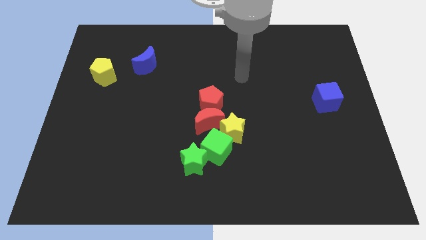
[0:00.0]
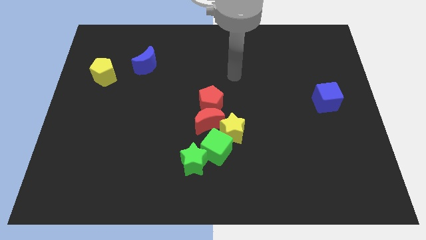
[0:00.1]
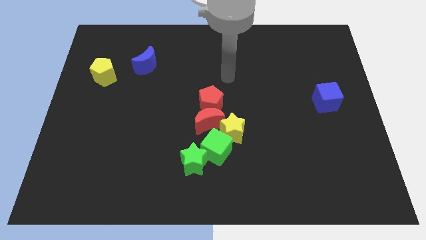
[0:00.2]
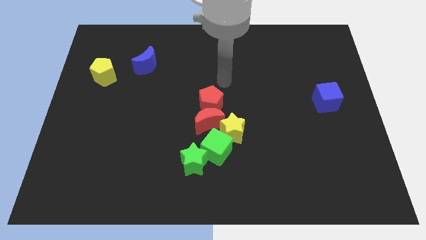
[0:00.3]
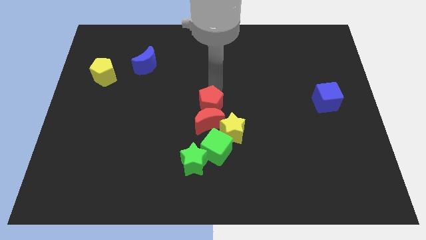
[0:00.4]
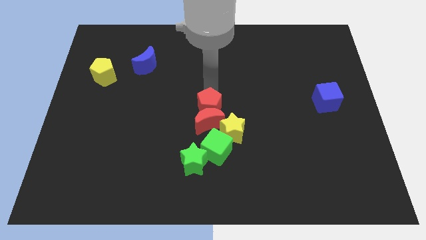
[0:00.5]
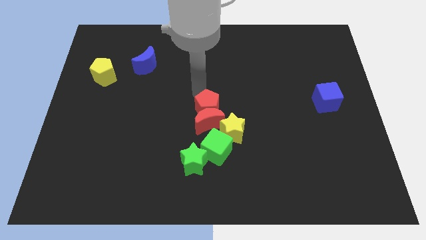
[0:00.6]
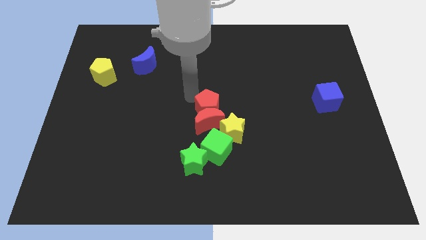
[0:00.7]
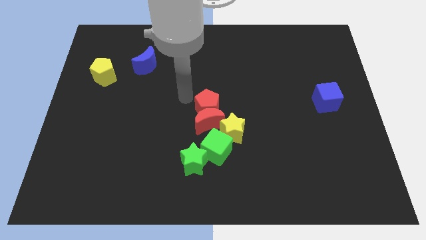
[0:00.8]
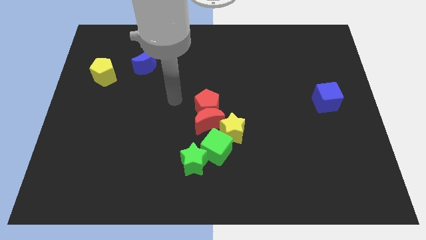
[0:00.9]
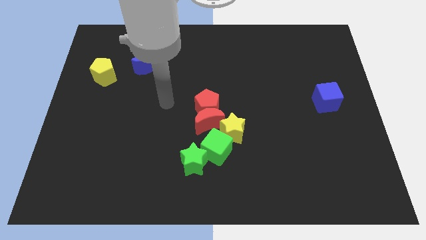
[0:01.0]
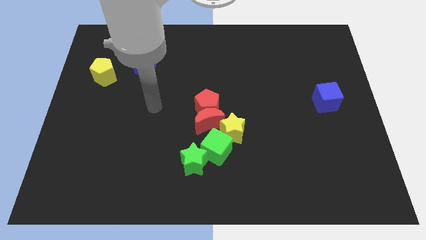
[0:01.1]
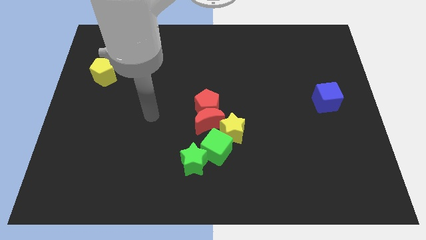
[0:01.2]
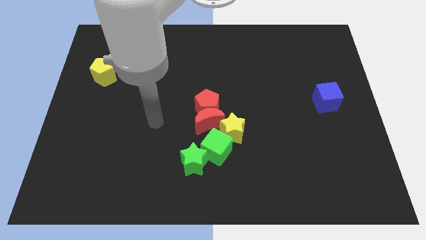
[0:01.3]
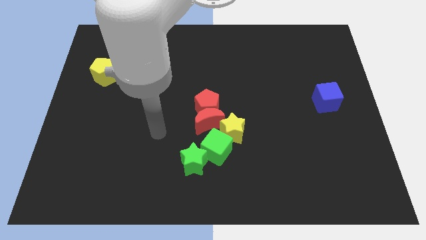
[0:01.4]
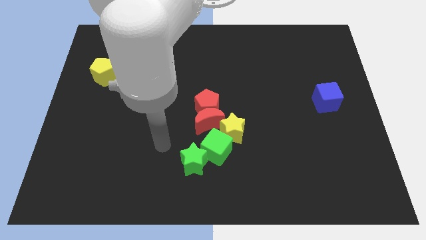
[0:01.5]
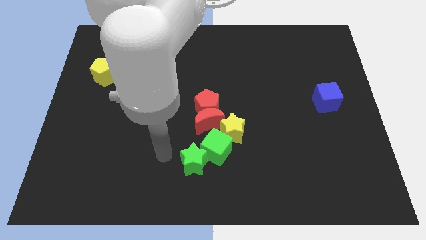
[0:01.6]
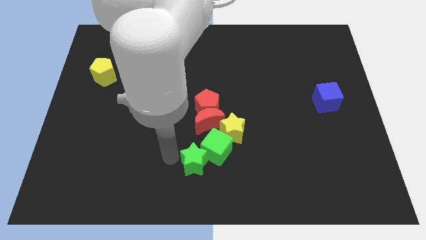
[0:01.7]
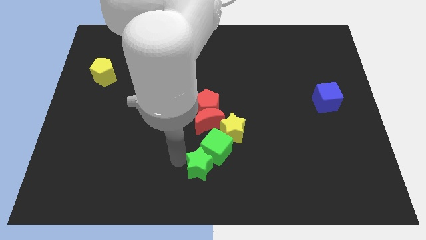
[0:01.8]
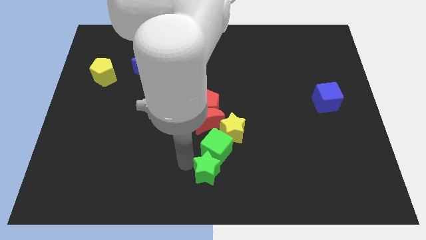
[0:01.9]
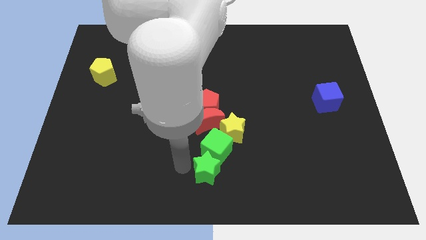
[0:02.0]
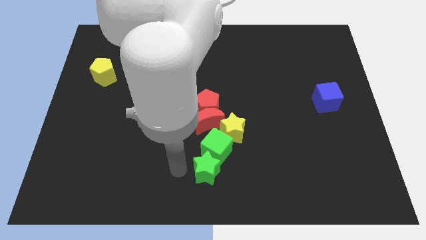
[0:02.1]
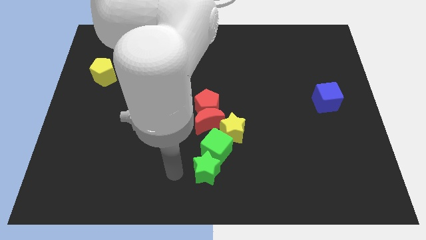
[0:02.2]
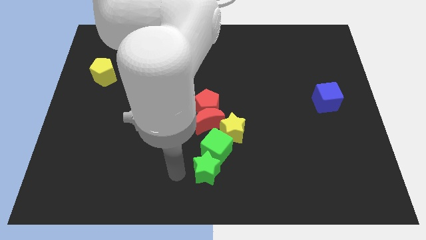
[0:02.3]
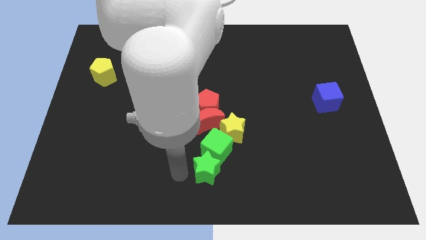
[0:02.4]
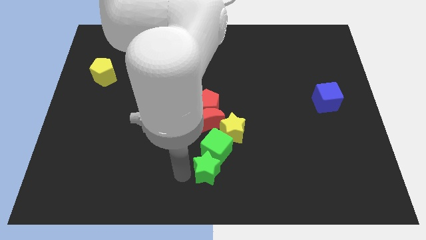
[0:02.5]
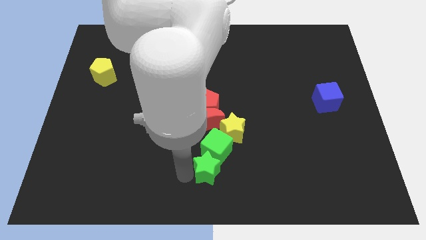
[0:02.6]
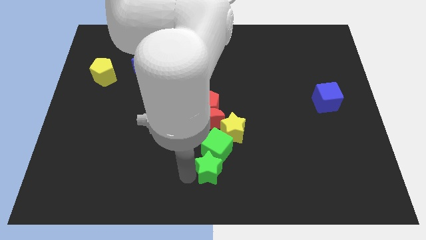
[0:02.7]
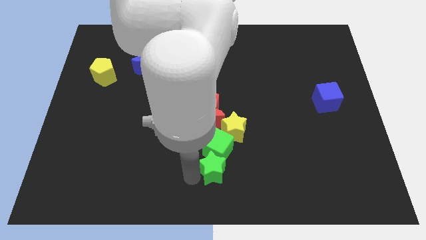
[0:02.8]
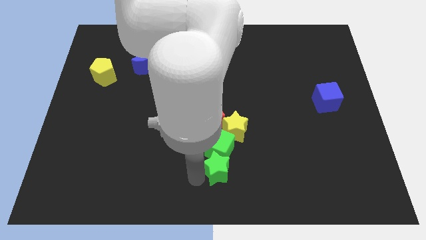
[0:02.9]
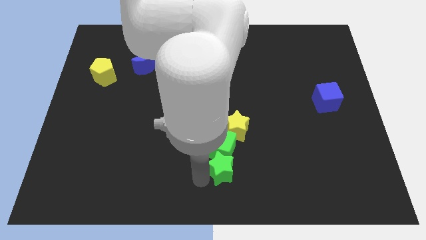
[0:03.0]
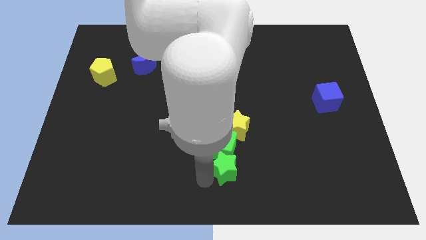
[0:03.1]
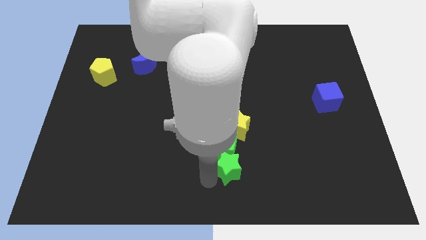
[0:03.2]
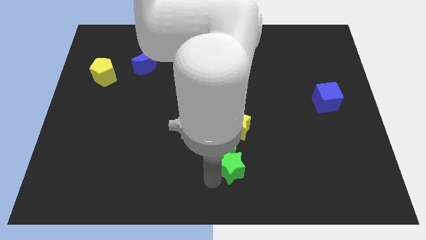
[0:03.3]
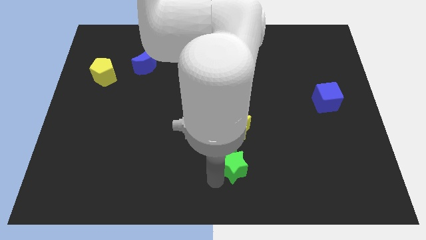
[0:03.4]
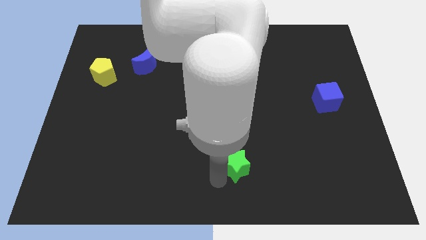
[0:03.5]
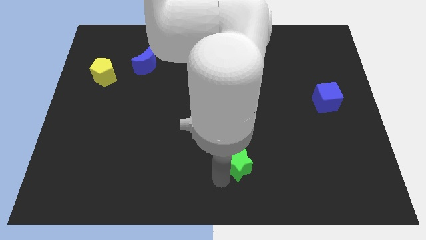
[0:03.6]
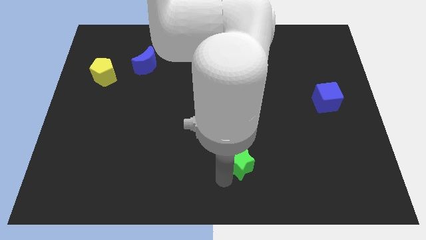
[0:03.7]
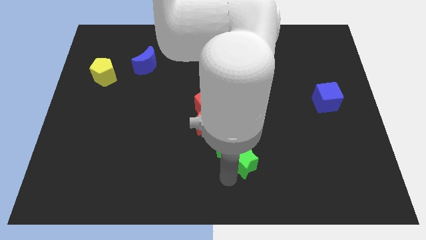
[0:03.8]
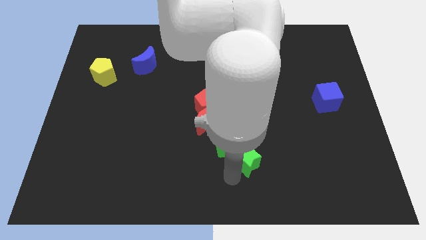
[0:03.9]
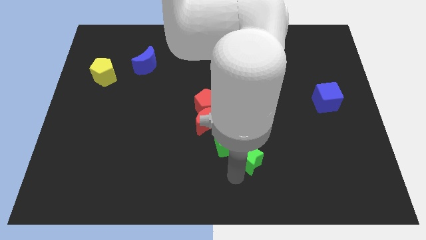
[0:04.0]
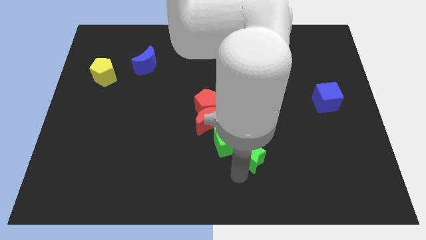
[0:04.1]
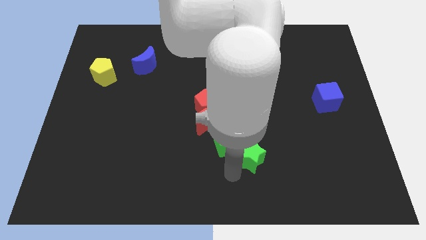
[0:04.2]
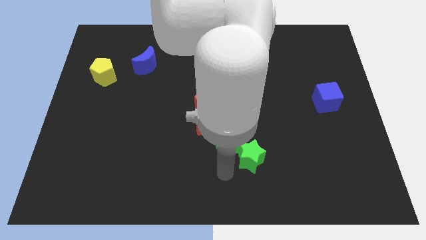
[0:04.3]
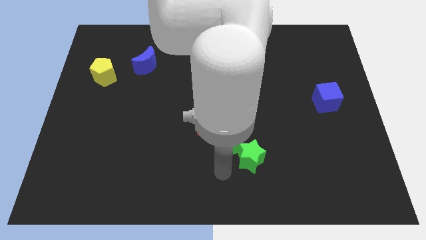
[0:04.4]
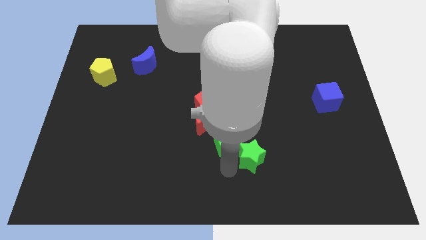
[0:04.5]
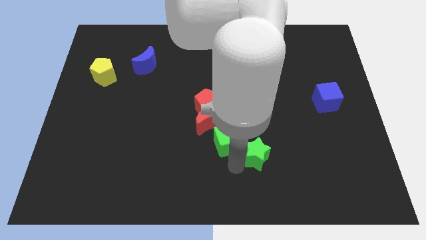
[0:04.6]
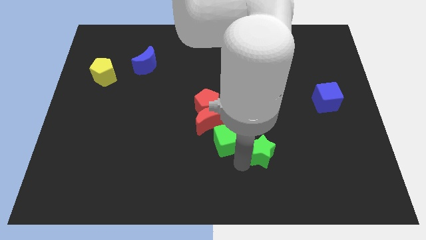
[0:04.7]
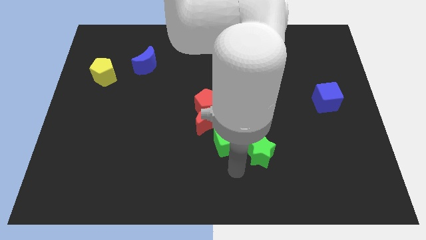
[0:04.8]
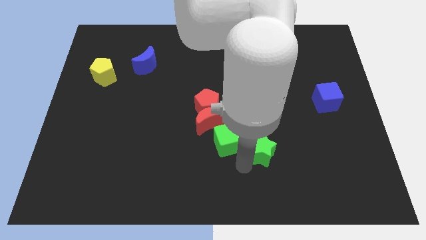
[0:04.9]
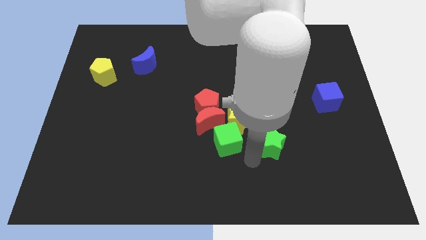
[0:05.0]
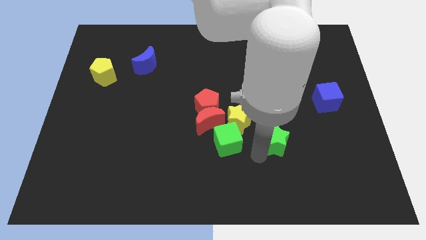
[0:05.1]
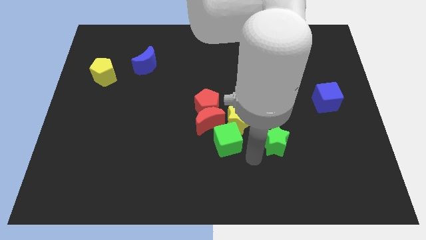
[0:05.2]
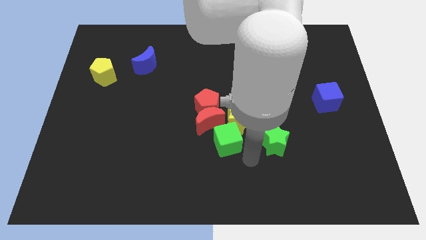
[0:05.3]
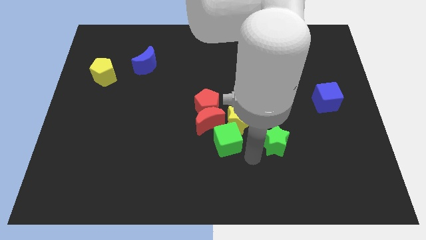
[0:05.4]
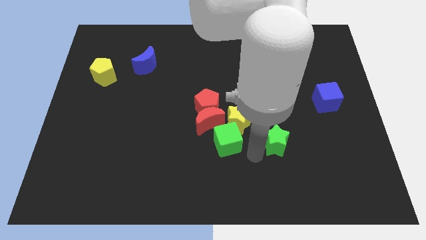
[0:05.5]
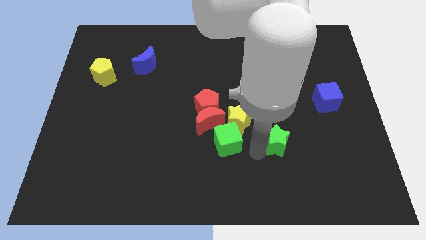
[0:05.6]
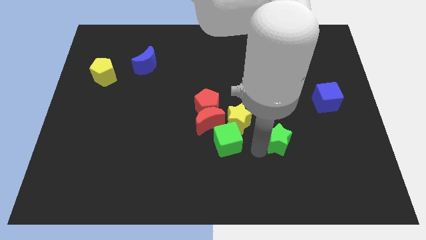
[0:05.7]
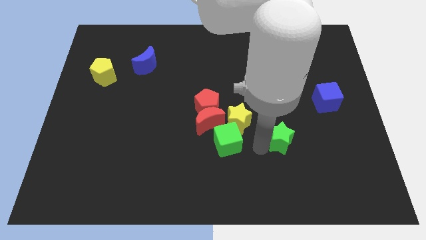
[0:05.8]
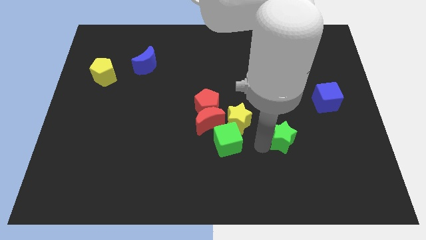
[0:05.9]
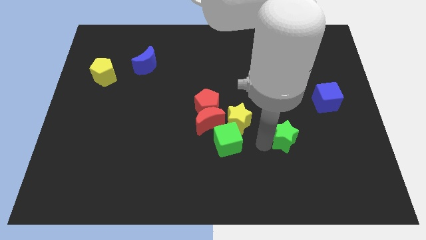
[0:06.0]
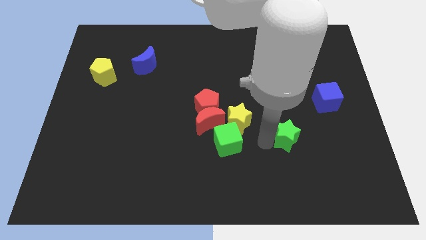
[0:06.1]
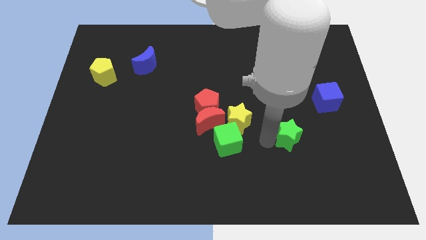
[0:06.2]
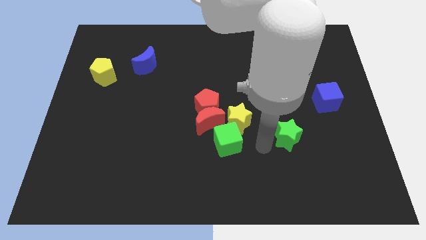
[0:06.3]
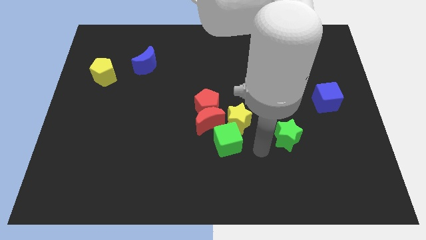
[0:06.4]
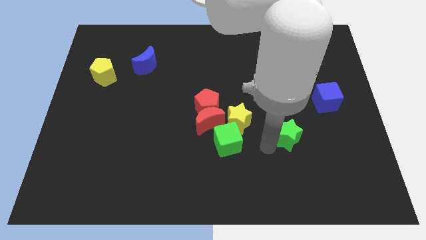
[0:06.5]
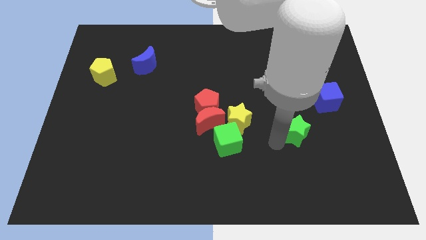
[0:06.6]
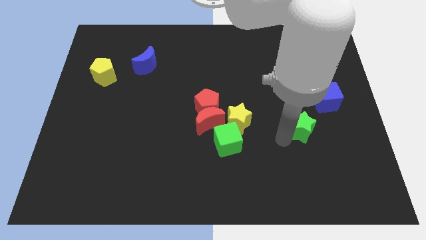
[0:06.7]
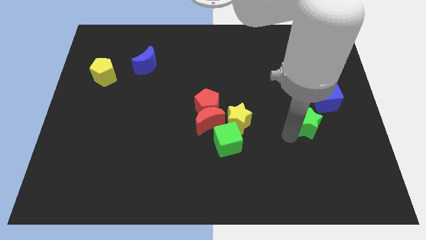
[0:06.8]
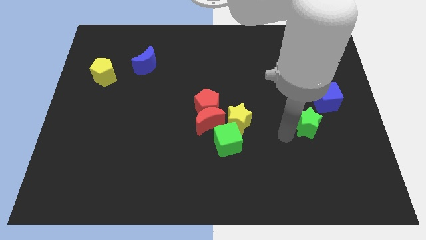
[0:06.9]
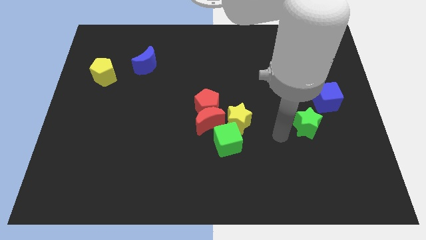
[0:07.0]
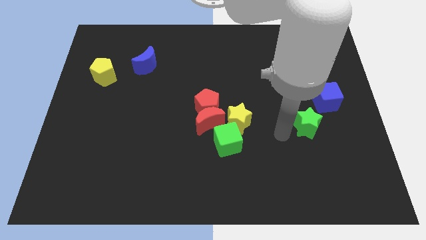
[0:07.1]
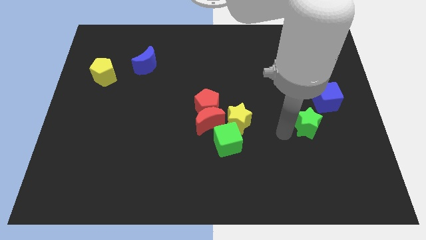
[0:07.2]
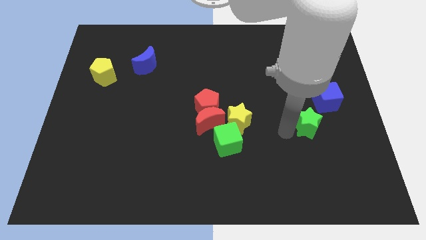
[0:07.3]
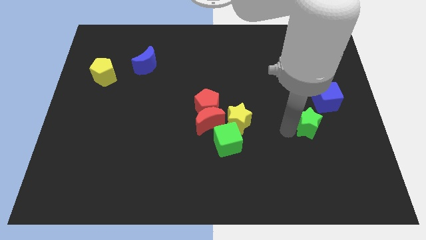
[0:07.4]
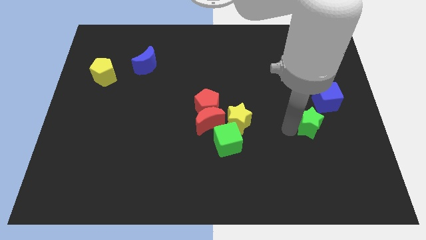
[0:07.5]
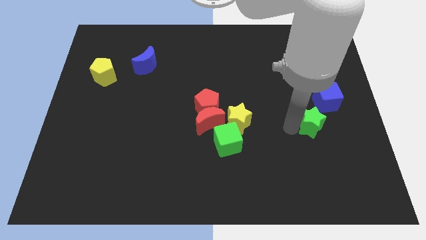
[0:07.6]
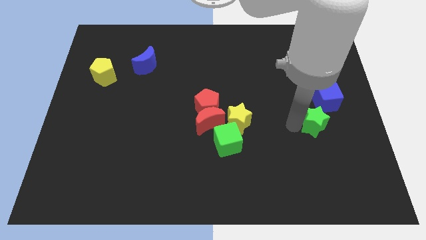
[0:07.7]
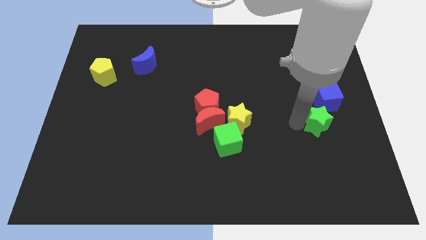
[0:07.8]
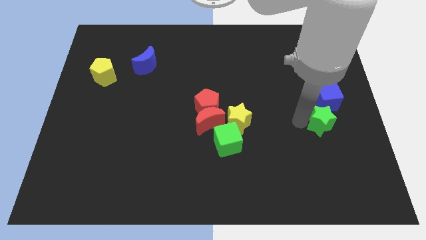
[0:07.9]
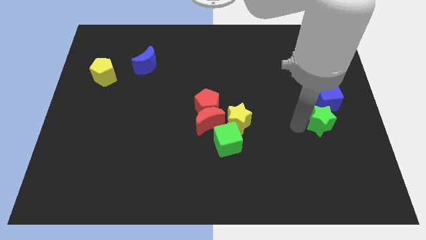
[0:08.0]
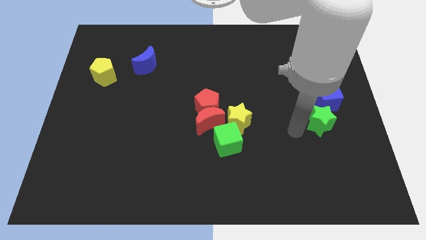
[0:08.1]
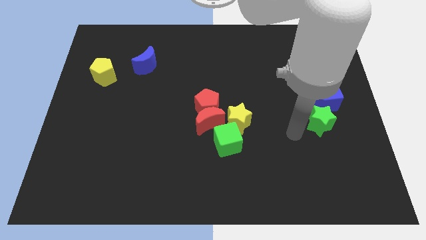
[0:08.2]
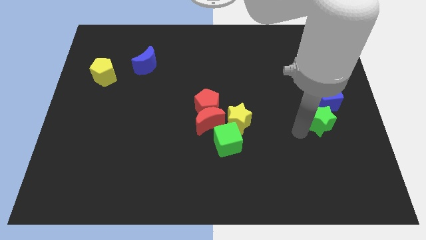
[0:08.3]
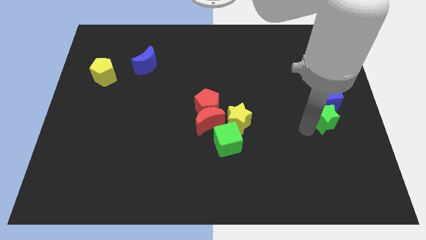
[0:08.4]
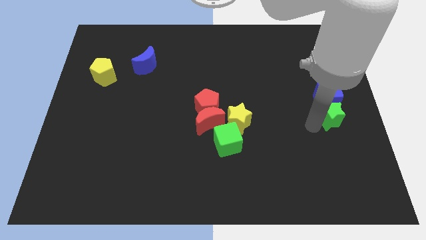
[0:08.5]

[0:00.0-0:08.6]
push the green star to the right side
